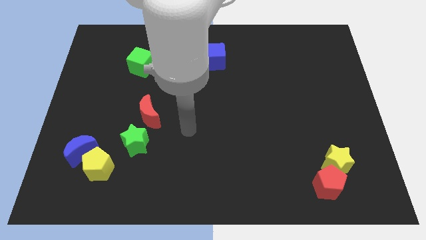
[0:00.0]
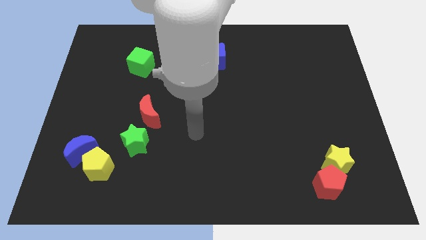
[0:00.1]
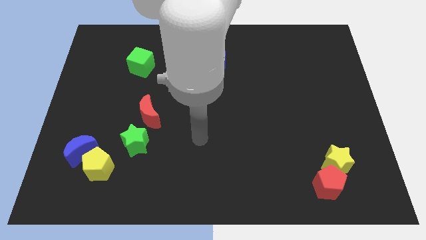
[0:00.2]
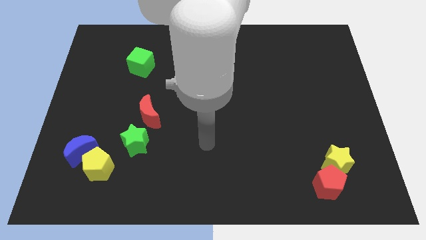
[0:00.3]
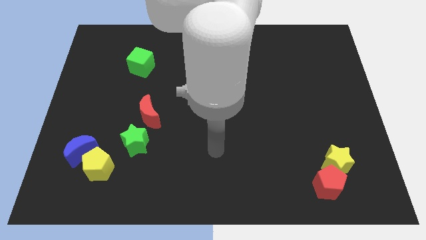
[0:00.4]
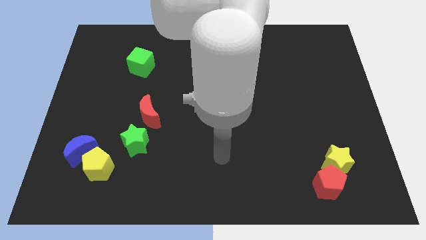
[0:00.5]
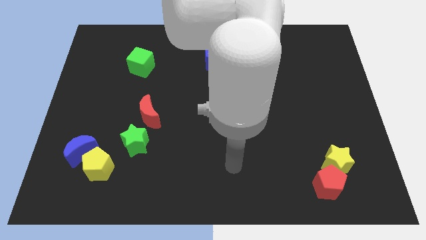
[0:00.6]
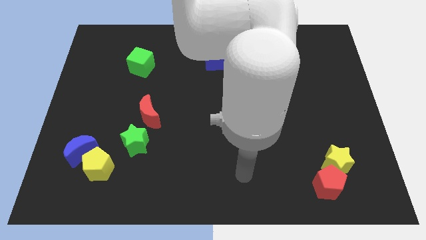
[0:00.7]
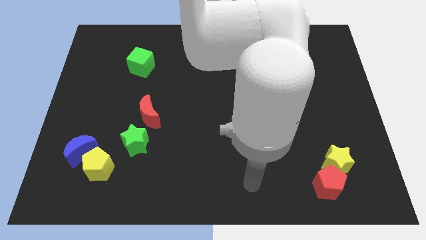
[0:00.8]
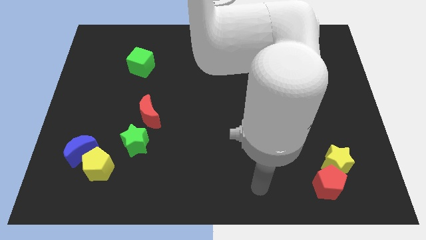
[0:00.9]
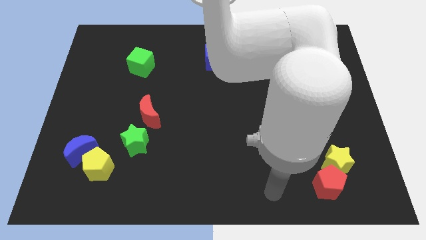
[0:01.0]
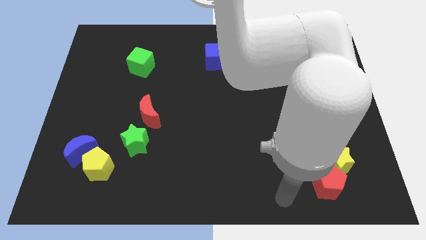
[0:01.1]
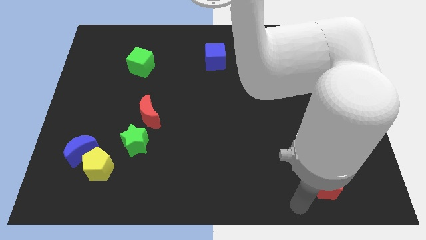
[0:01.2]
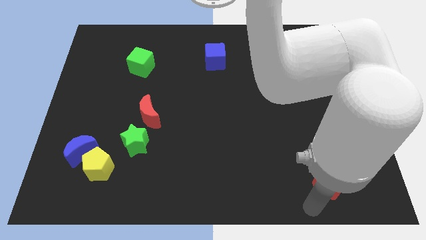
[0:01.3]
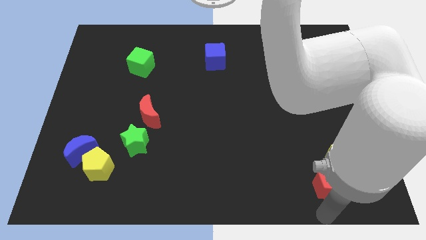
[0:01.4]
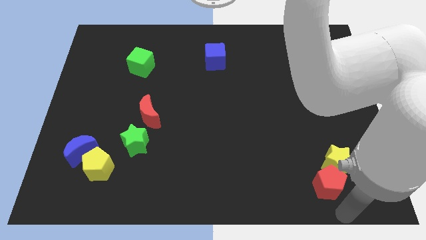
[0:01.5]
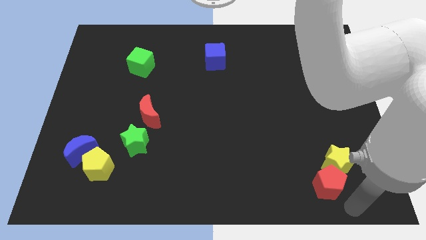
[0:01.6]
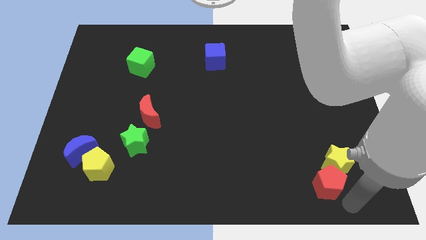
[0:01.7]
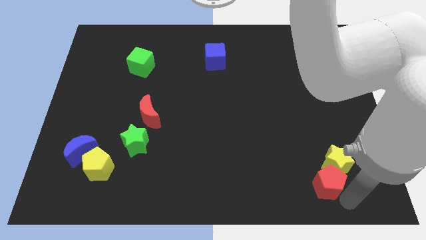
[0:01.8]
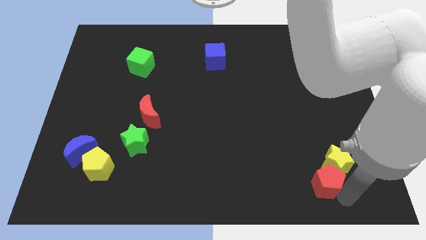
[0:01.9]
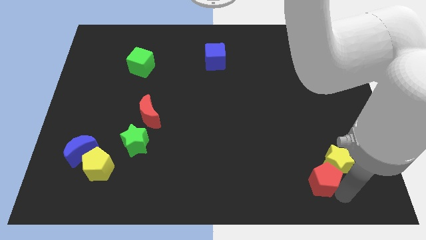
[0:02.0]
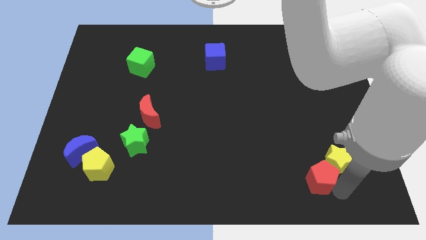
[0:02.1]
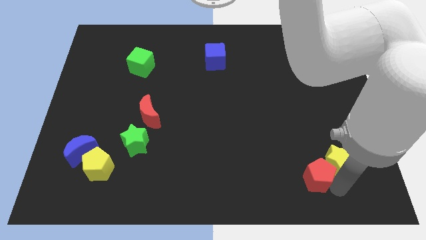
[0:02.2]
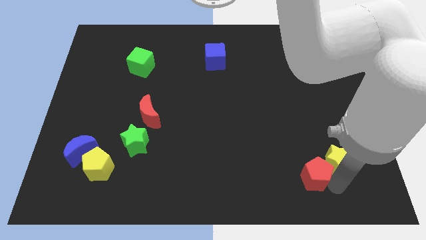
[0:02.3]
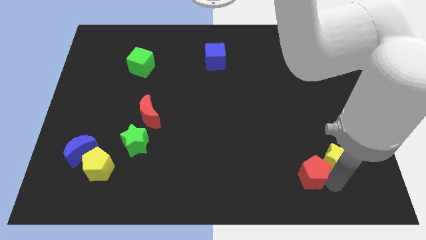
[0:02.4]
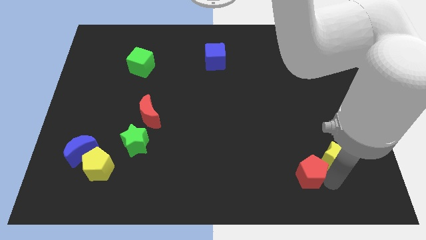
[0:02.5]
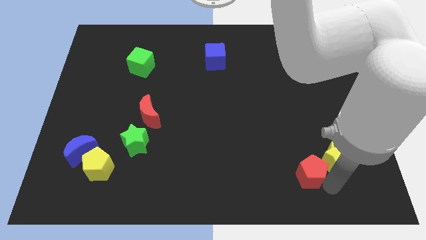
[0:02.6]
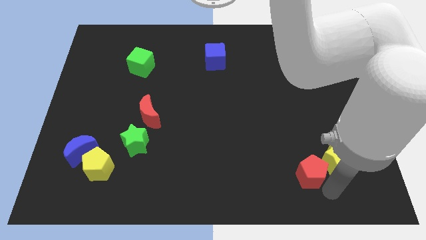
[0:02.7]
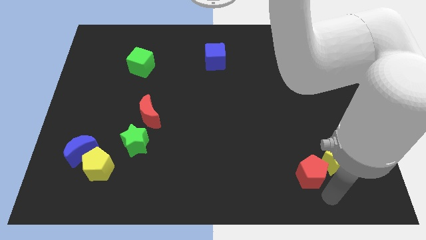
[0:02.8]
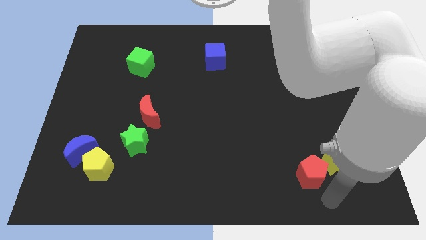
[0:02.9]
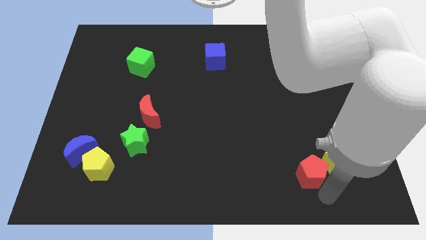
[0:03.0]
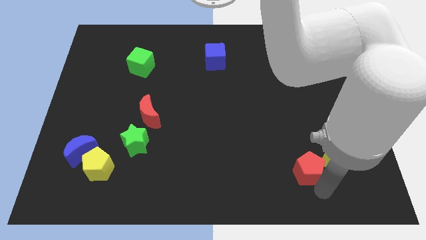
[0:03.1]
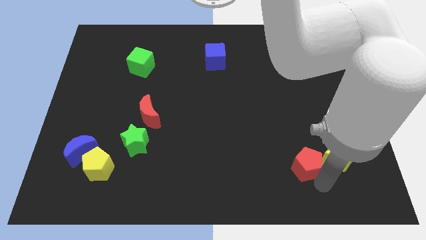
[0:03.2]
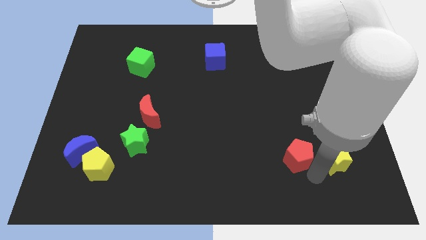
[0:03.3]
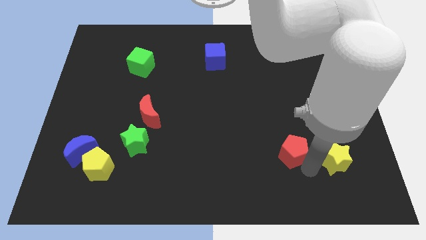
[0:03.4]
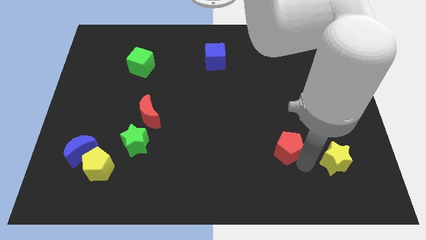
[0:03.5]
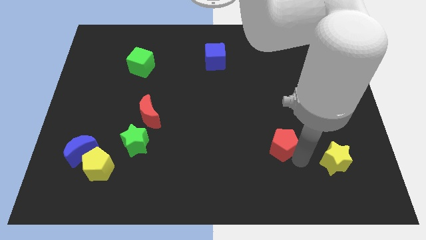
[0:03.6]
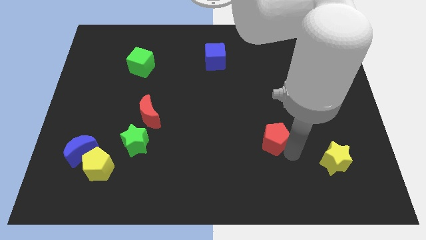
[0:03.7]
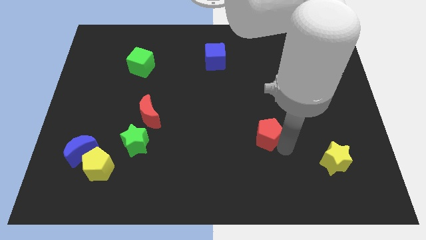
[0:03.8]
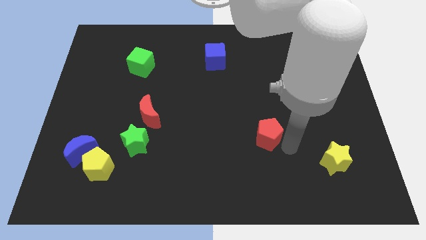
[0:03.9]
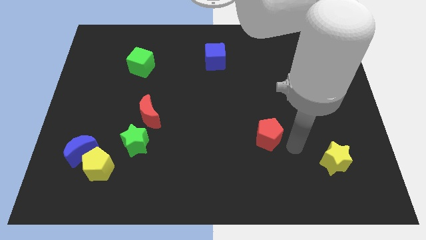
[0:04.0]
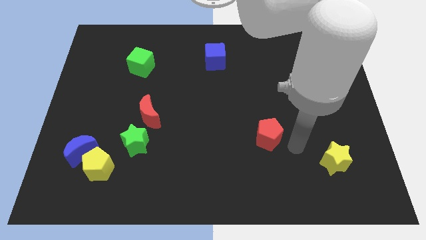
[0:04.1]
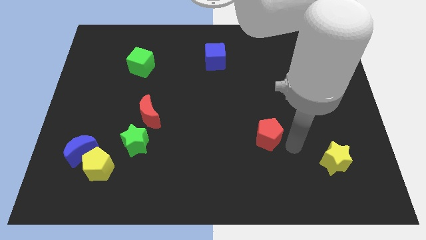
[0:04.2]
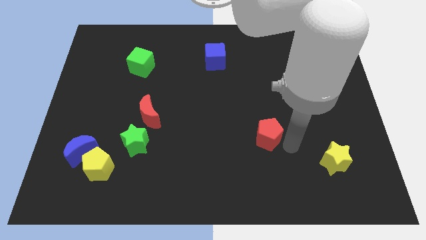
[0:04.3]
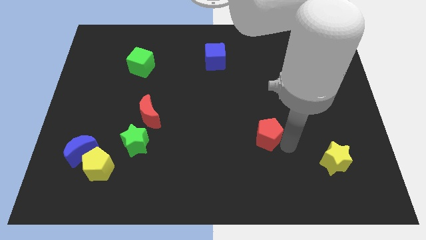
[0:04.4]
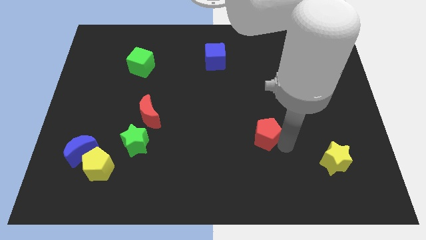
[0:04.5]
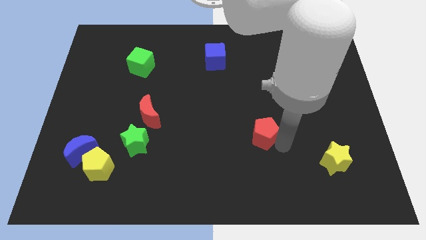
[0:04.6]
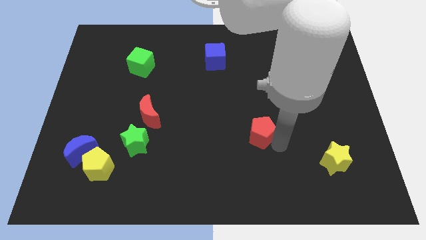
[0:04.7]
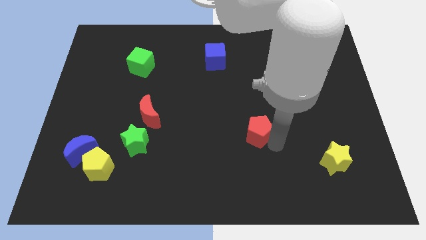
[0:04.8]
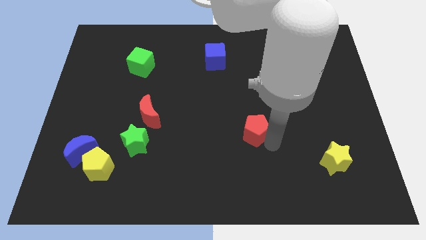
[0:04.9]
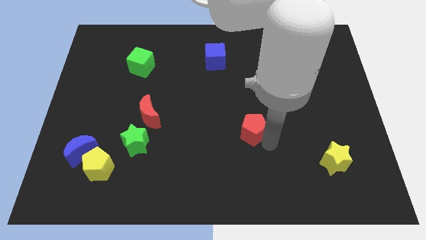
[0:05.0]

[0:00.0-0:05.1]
put the red pentagon to the middle

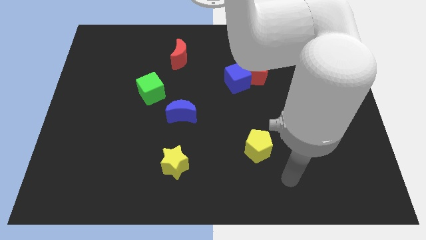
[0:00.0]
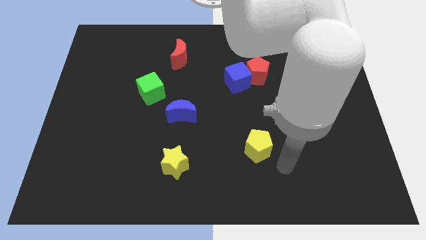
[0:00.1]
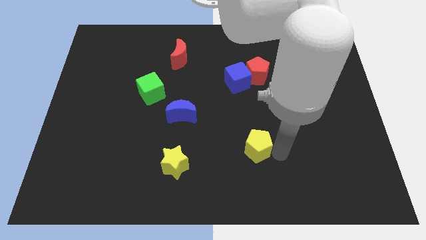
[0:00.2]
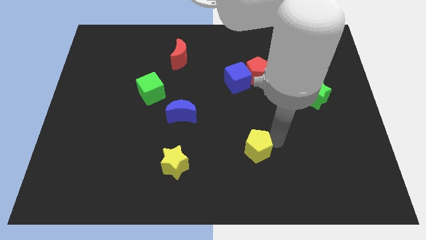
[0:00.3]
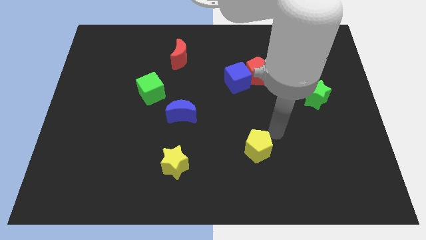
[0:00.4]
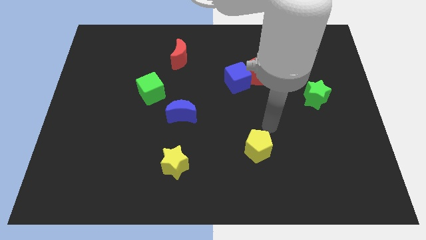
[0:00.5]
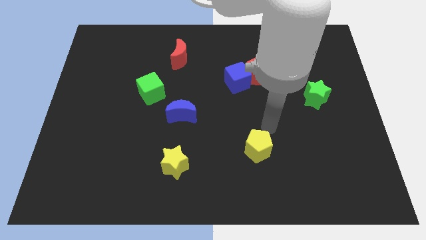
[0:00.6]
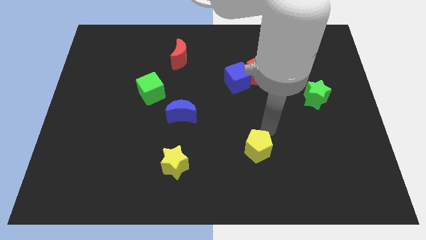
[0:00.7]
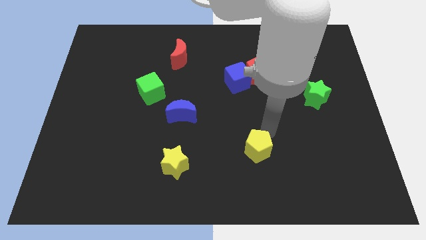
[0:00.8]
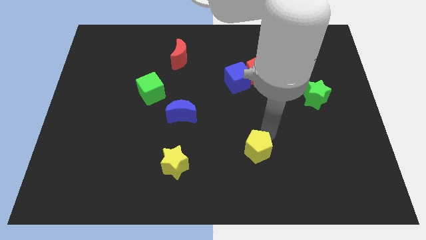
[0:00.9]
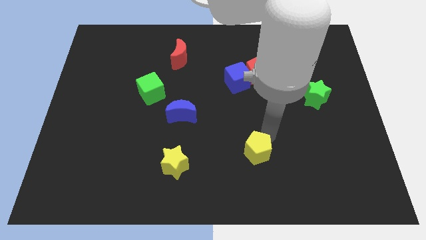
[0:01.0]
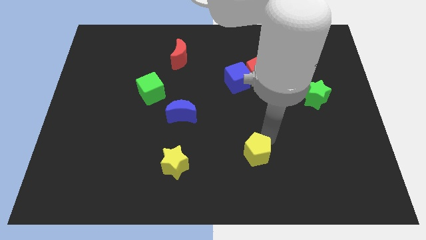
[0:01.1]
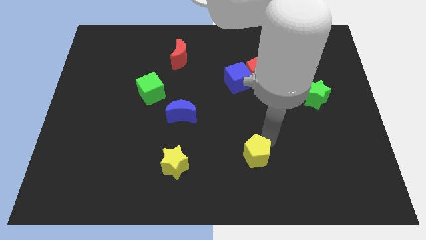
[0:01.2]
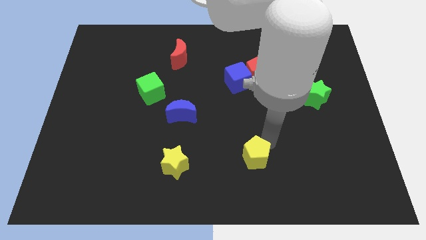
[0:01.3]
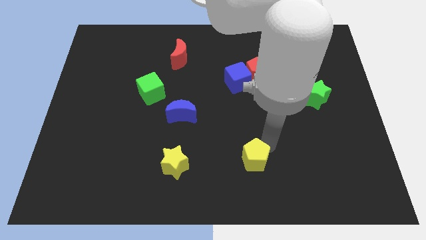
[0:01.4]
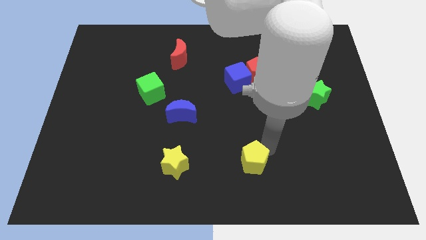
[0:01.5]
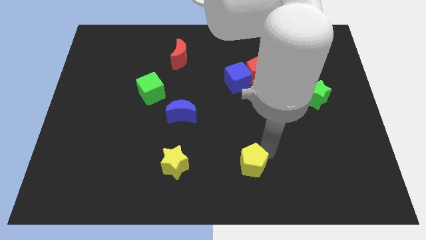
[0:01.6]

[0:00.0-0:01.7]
push the yellow pentagon to the bottom
